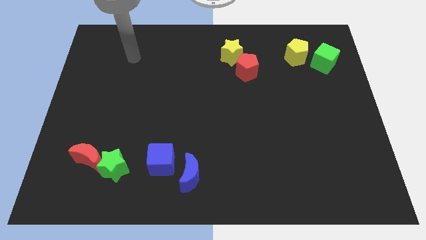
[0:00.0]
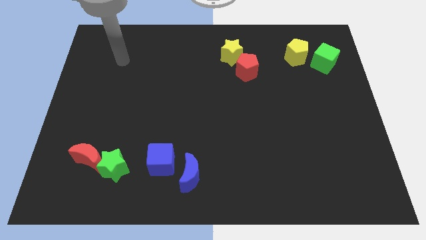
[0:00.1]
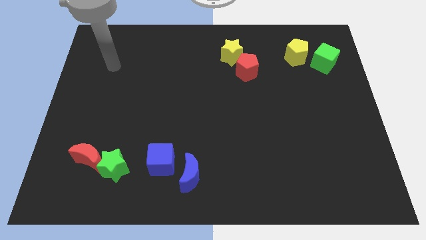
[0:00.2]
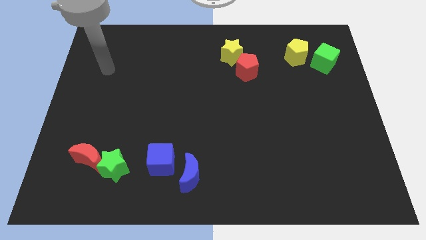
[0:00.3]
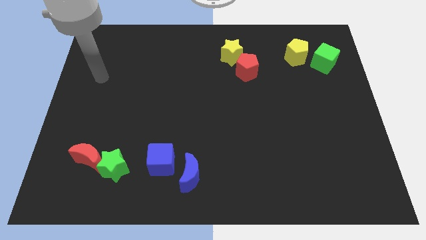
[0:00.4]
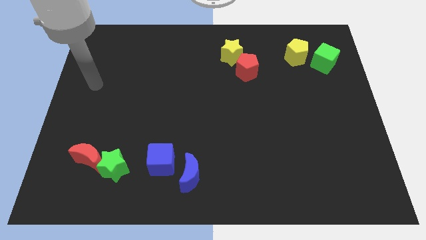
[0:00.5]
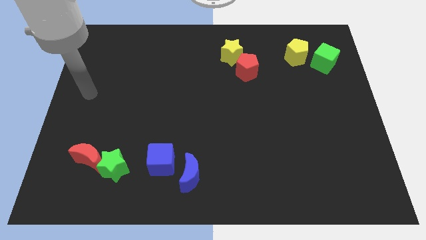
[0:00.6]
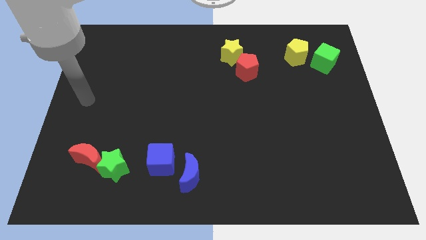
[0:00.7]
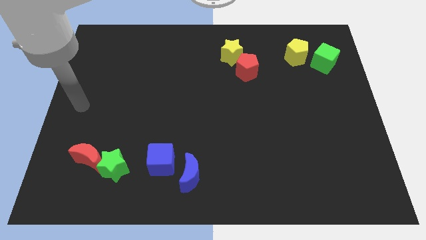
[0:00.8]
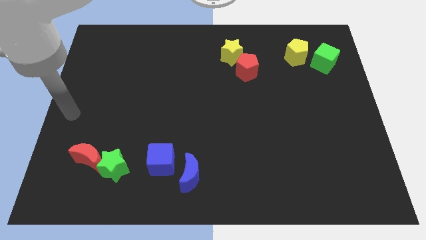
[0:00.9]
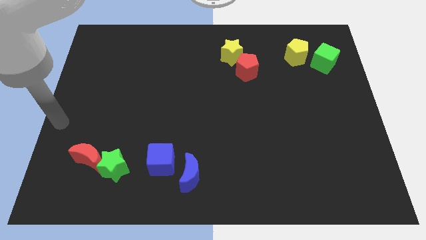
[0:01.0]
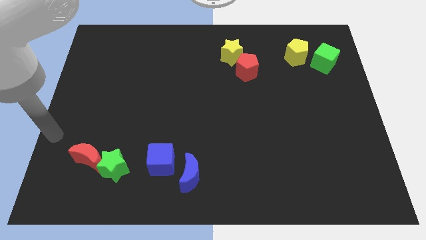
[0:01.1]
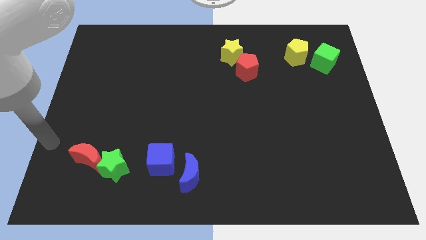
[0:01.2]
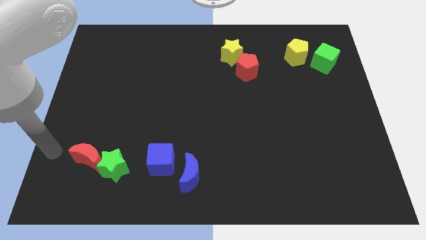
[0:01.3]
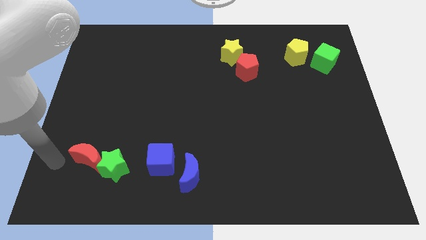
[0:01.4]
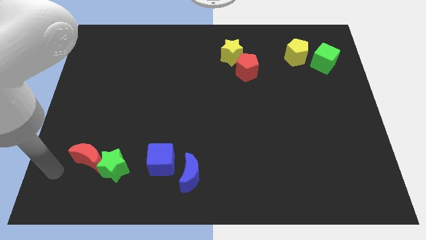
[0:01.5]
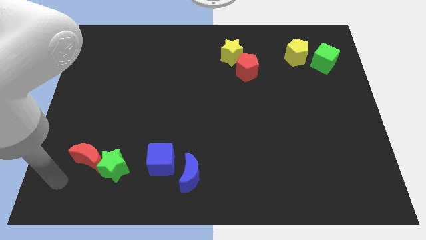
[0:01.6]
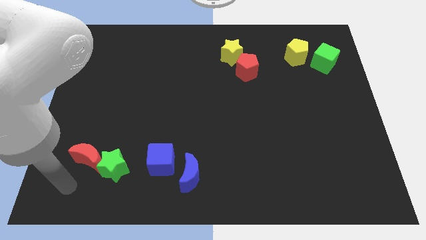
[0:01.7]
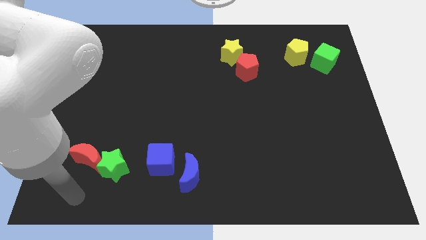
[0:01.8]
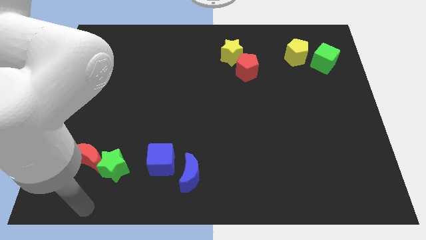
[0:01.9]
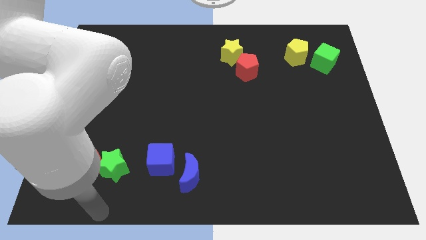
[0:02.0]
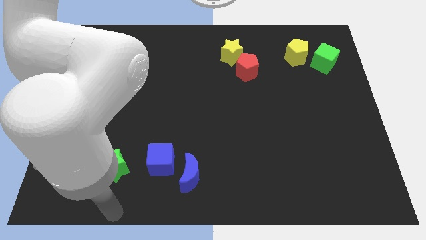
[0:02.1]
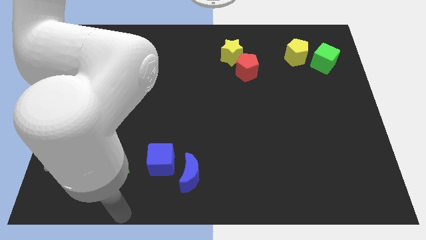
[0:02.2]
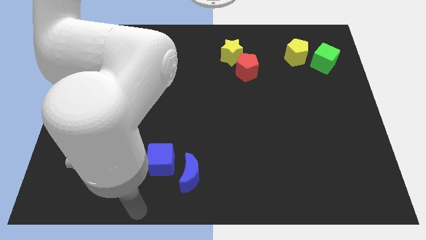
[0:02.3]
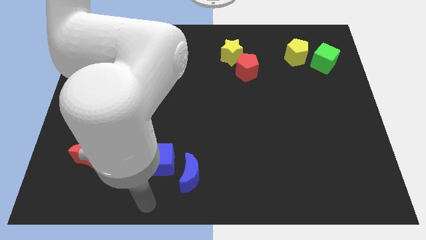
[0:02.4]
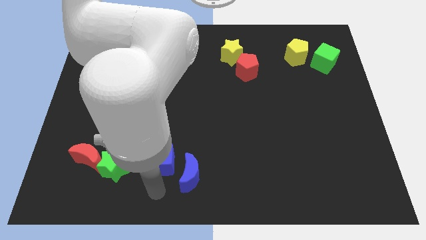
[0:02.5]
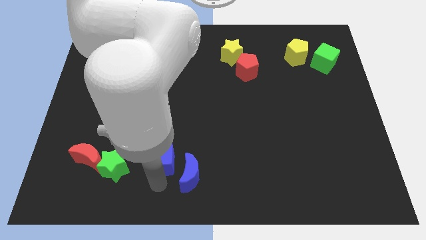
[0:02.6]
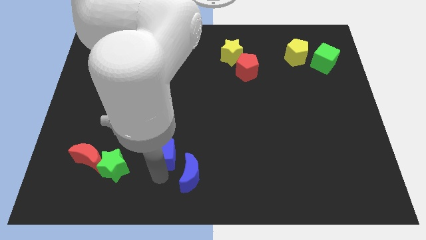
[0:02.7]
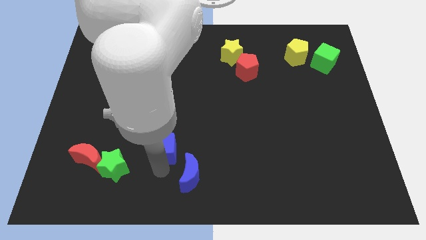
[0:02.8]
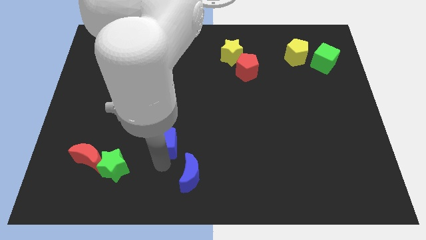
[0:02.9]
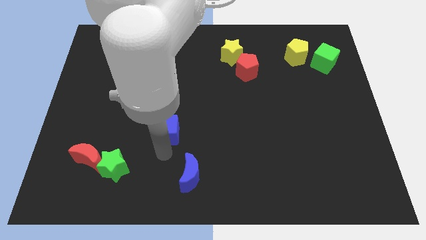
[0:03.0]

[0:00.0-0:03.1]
slide the blue cube slightly upwards

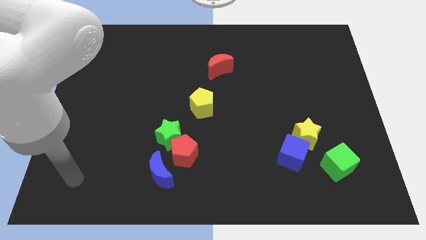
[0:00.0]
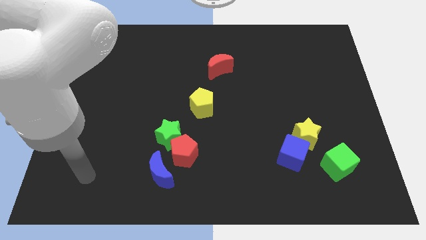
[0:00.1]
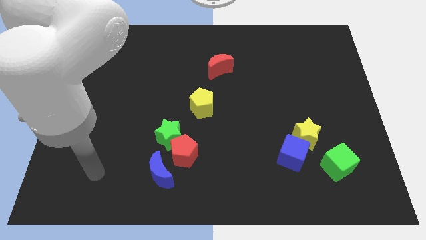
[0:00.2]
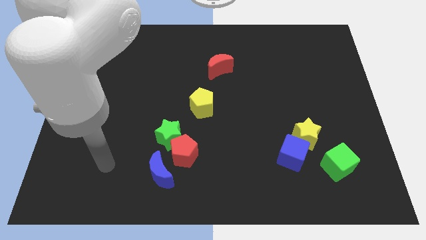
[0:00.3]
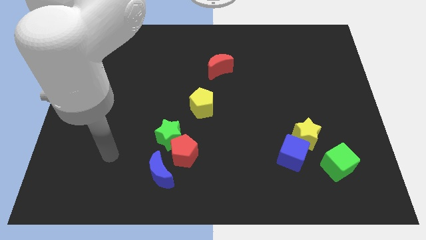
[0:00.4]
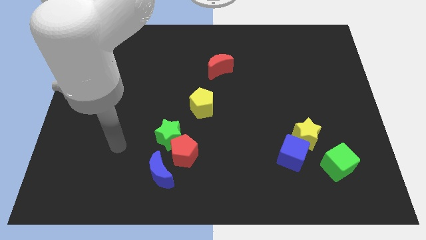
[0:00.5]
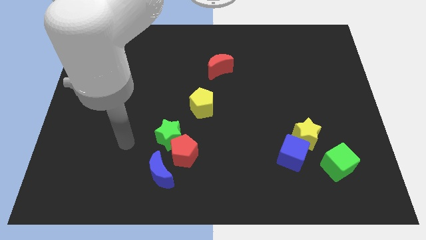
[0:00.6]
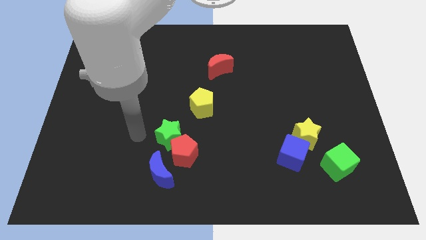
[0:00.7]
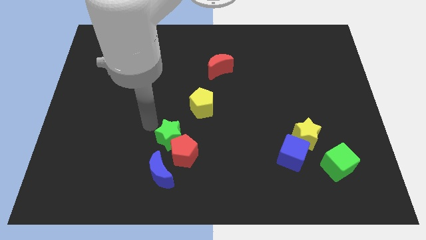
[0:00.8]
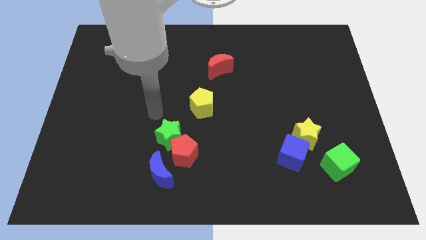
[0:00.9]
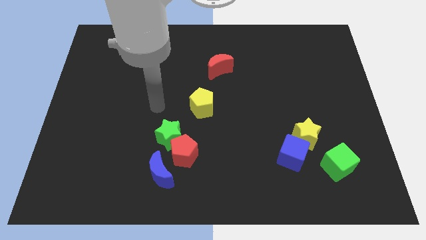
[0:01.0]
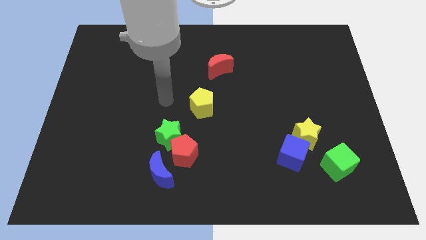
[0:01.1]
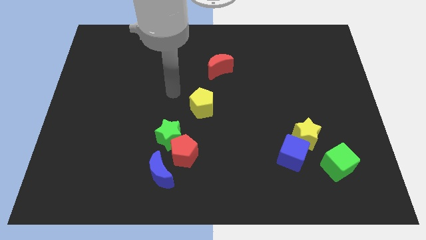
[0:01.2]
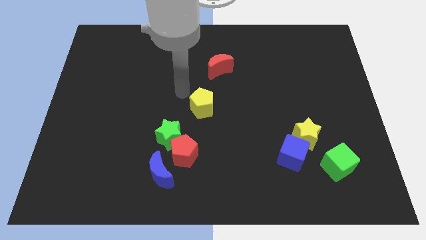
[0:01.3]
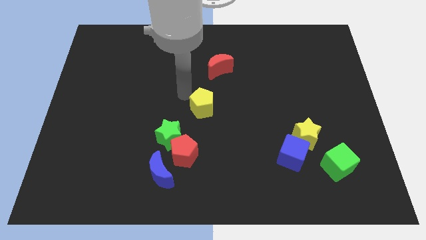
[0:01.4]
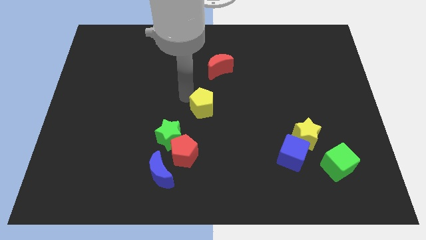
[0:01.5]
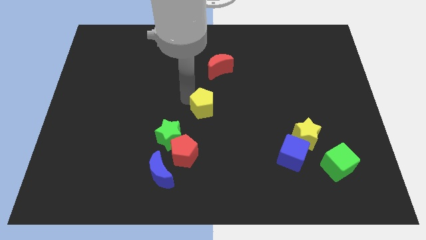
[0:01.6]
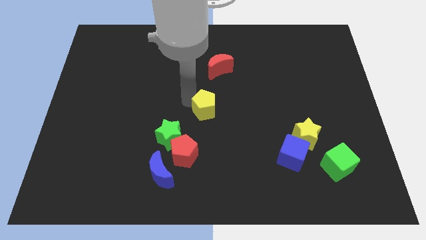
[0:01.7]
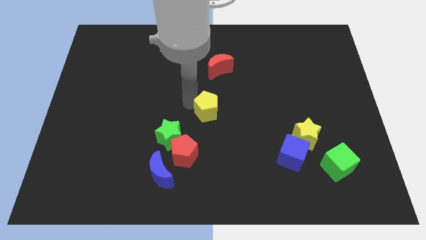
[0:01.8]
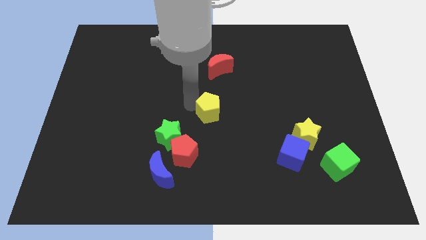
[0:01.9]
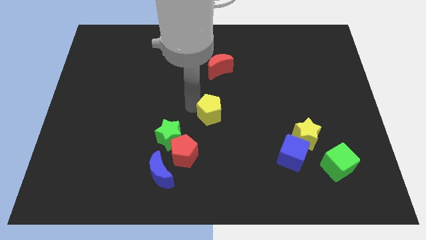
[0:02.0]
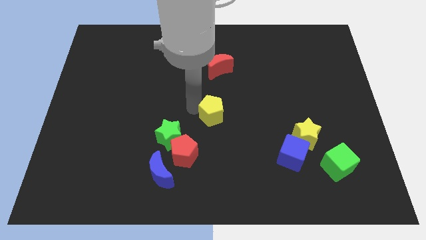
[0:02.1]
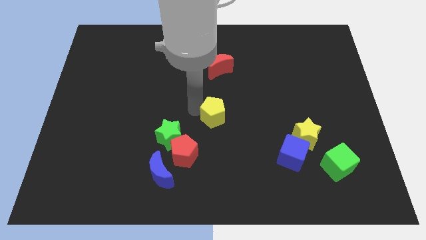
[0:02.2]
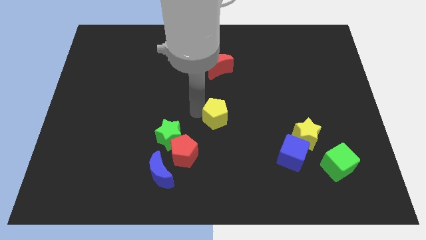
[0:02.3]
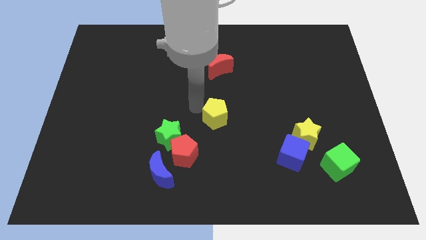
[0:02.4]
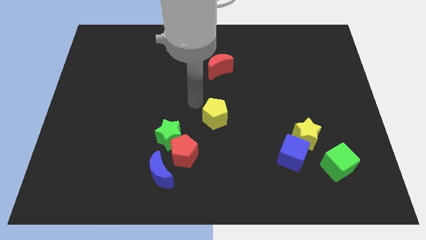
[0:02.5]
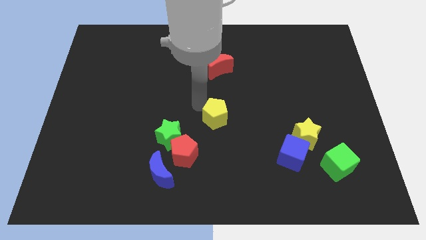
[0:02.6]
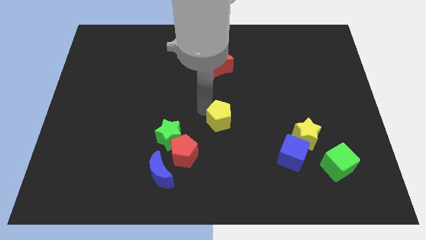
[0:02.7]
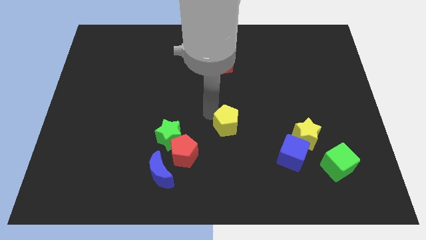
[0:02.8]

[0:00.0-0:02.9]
slightly slide the yellow pentagon downwards and right diagonally

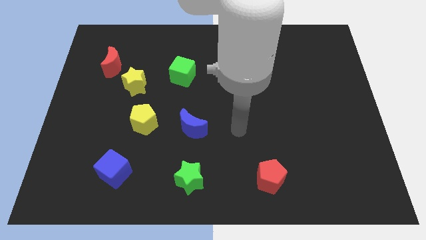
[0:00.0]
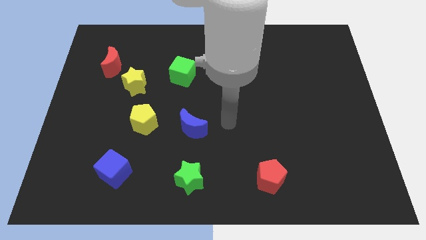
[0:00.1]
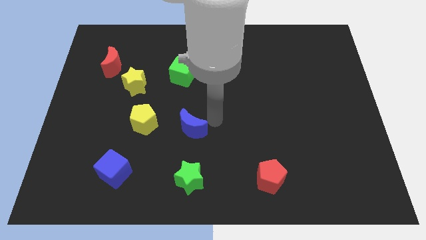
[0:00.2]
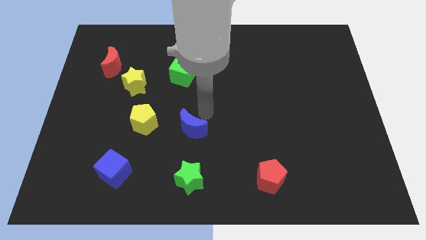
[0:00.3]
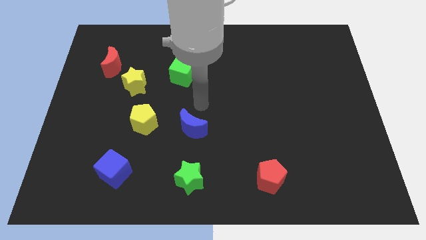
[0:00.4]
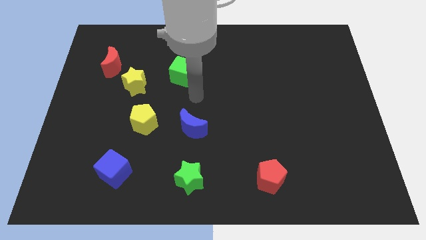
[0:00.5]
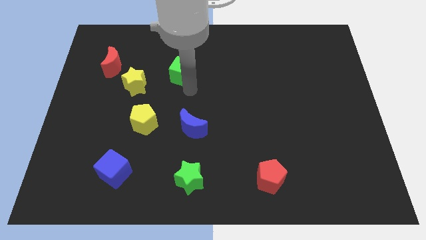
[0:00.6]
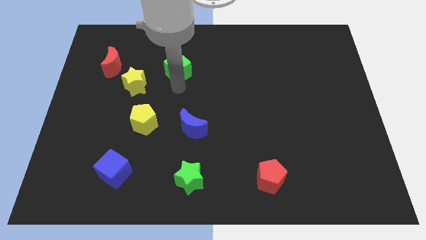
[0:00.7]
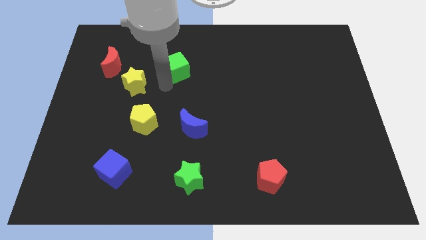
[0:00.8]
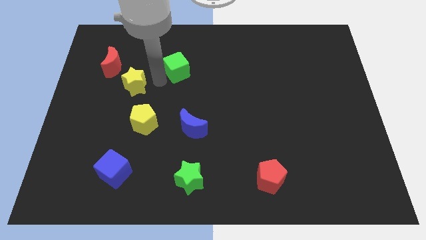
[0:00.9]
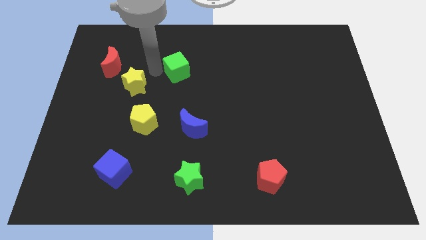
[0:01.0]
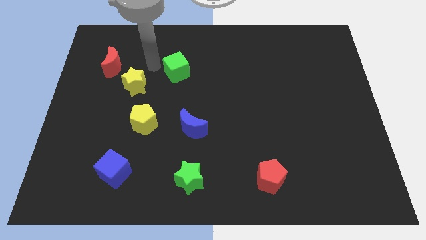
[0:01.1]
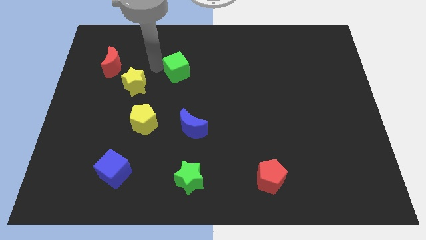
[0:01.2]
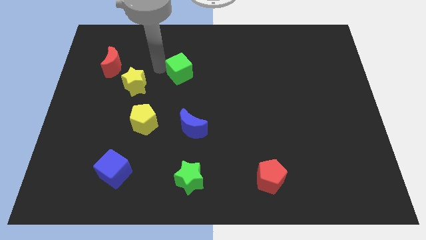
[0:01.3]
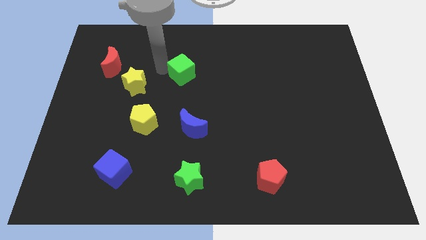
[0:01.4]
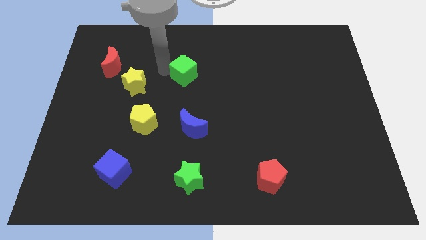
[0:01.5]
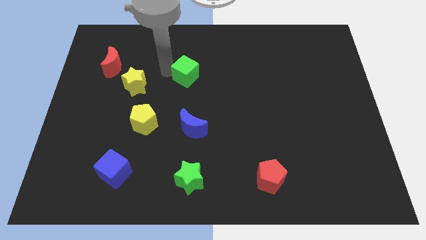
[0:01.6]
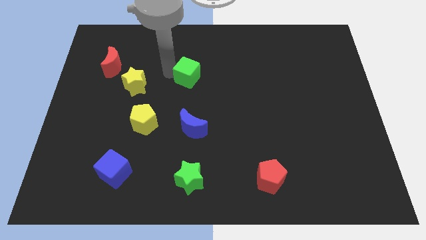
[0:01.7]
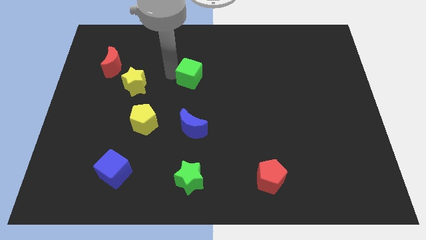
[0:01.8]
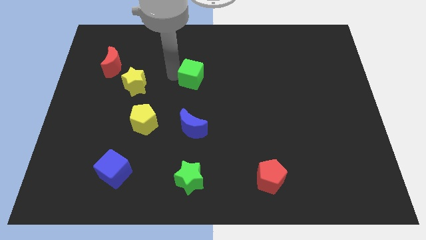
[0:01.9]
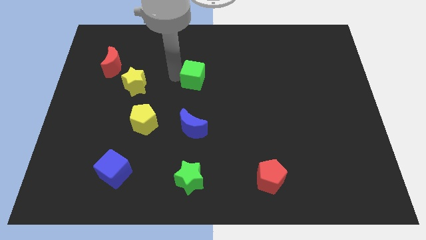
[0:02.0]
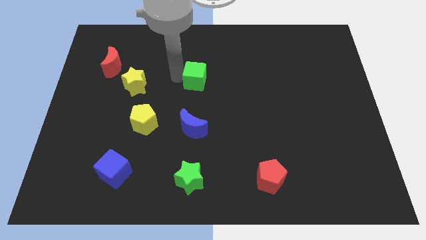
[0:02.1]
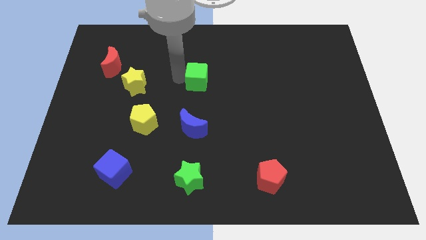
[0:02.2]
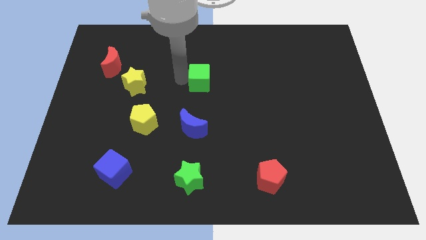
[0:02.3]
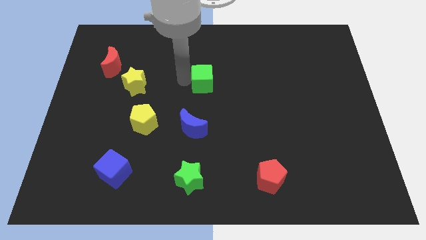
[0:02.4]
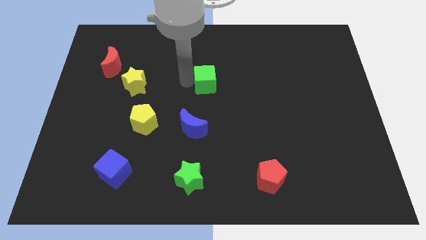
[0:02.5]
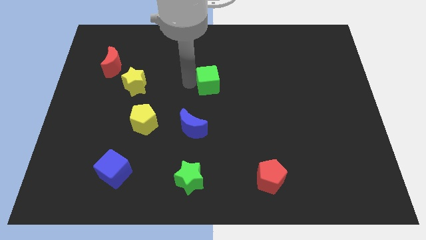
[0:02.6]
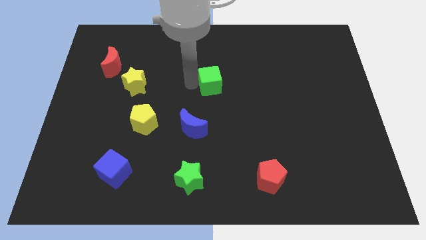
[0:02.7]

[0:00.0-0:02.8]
move the green cube to the right a little bit
